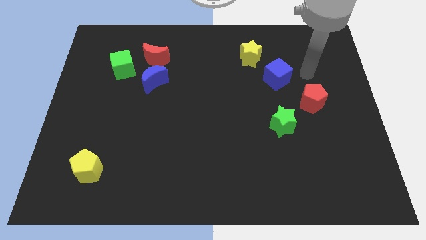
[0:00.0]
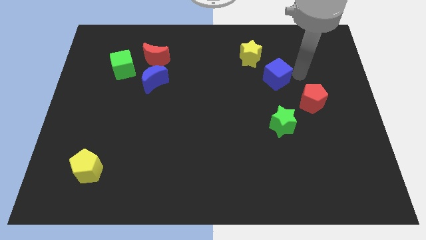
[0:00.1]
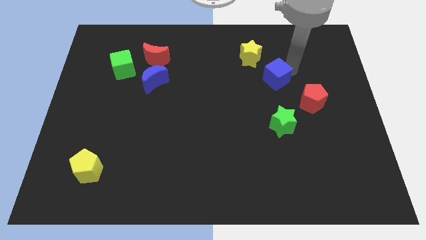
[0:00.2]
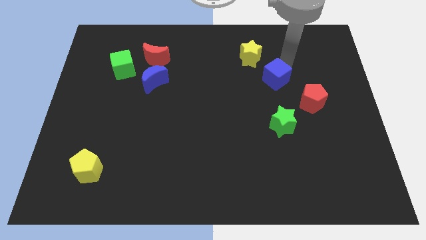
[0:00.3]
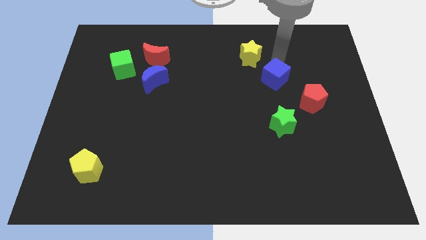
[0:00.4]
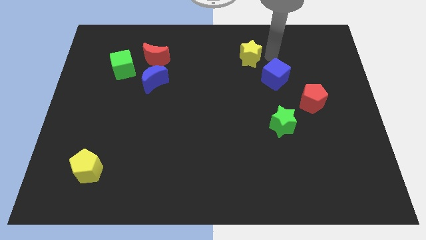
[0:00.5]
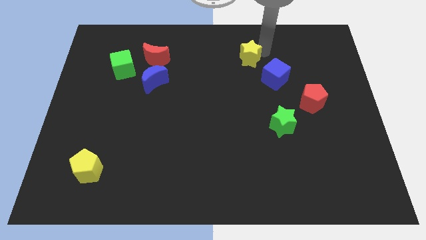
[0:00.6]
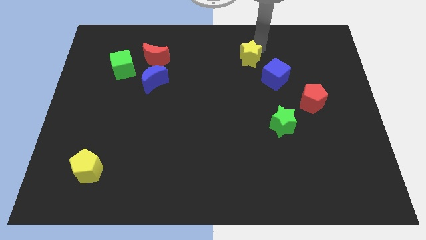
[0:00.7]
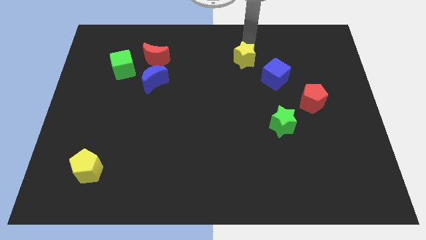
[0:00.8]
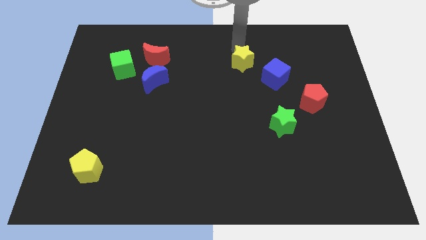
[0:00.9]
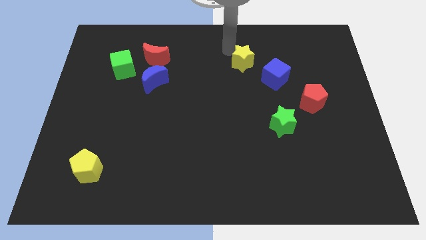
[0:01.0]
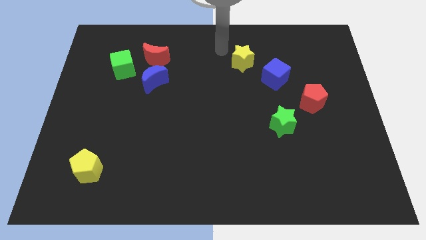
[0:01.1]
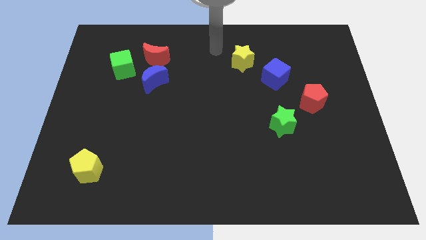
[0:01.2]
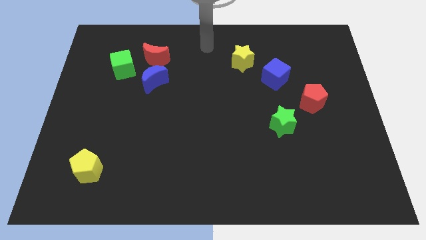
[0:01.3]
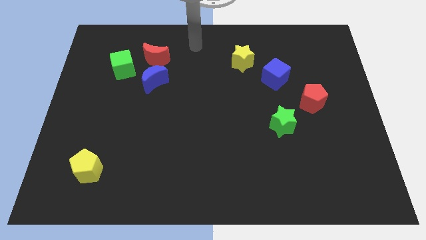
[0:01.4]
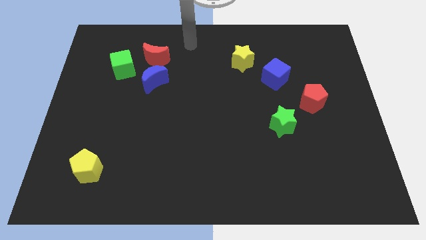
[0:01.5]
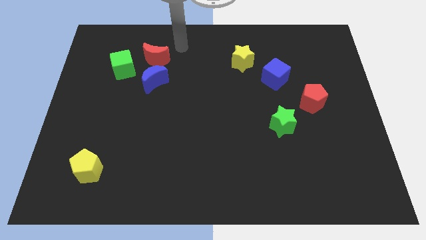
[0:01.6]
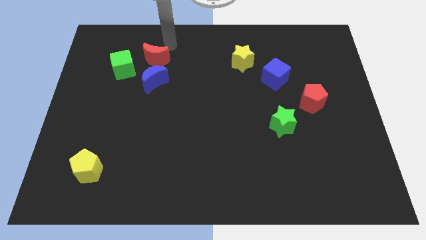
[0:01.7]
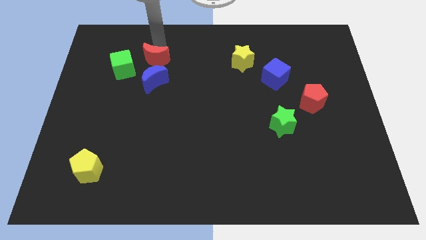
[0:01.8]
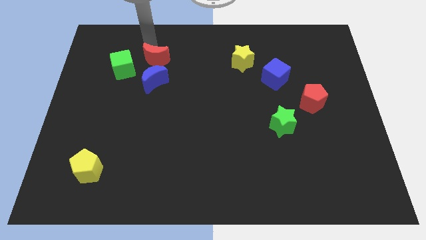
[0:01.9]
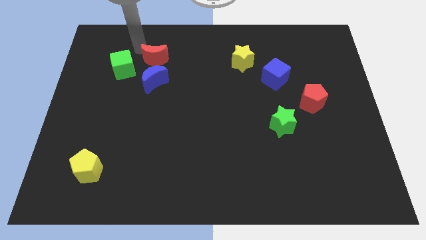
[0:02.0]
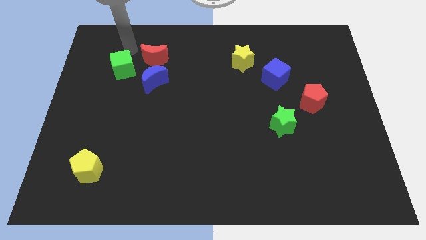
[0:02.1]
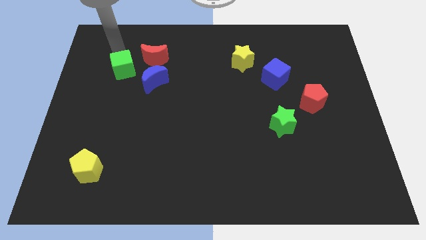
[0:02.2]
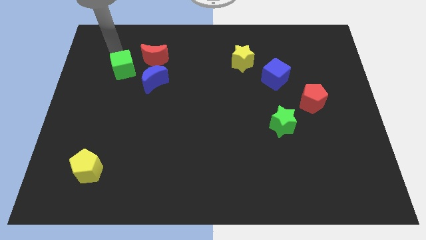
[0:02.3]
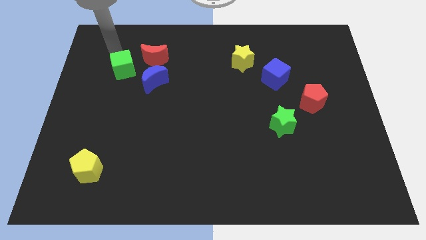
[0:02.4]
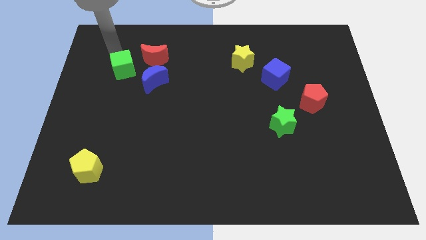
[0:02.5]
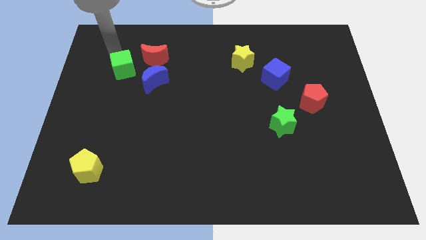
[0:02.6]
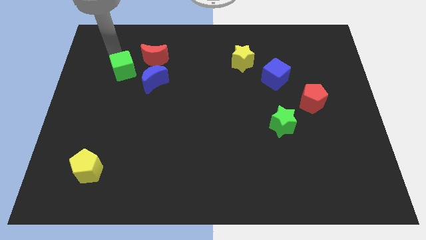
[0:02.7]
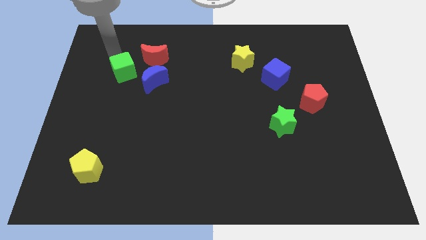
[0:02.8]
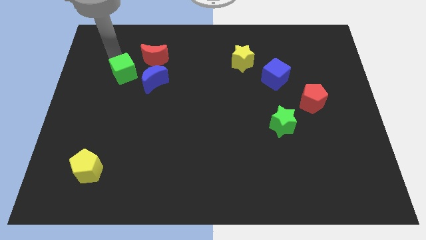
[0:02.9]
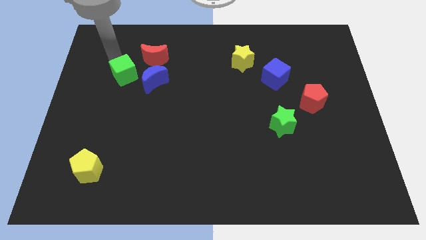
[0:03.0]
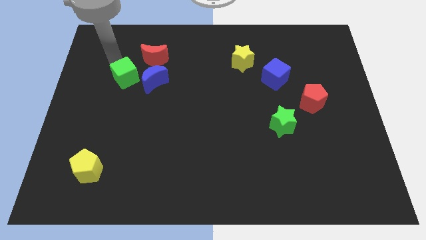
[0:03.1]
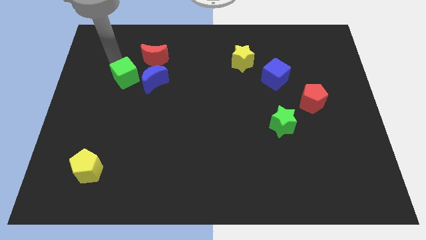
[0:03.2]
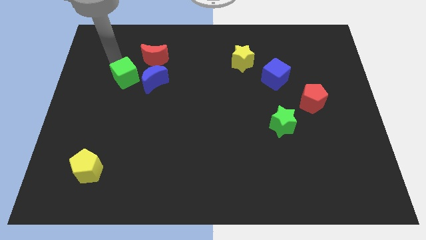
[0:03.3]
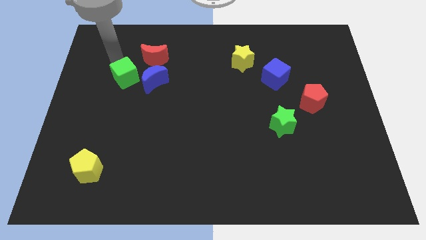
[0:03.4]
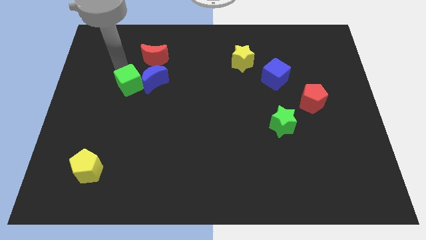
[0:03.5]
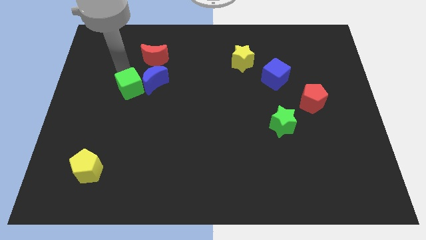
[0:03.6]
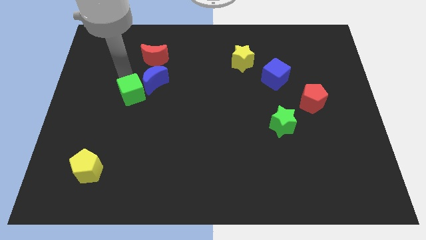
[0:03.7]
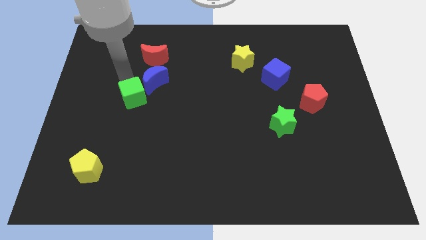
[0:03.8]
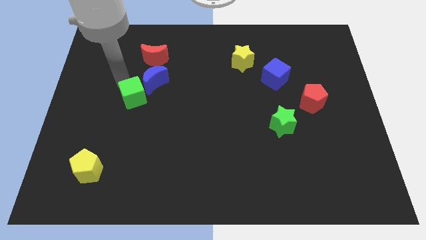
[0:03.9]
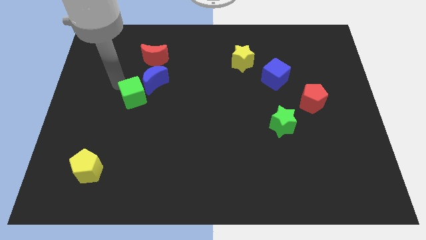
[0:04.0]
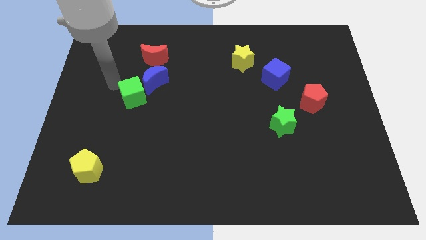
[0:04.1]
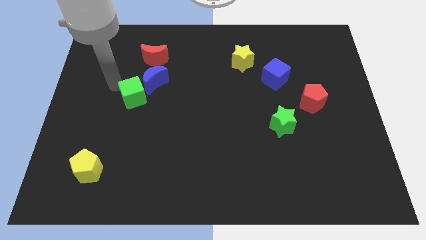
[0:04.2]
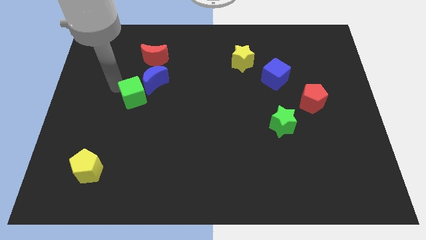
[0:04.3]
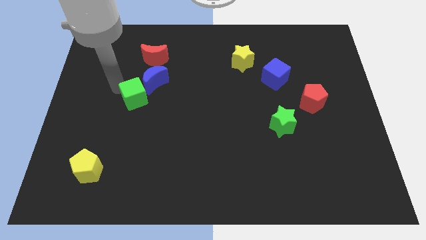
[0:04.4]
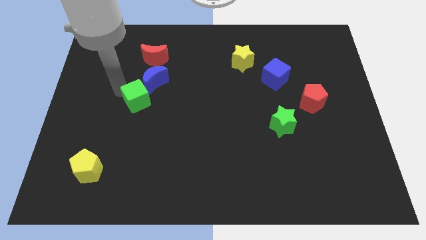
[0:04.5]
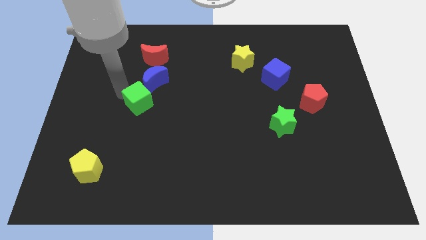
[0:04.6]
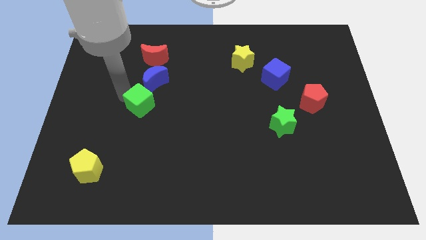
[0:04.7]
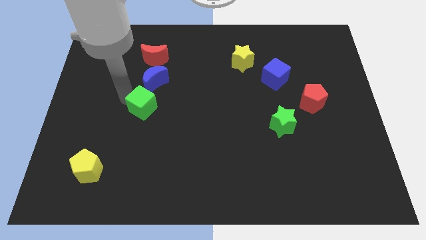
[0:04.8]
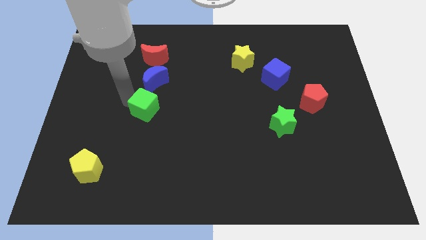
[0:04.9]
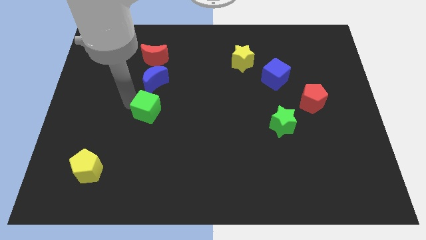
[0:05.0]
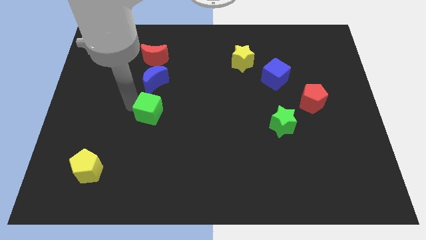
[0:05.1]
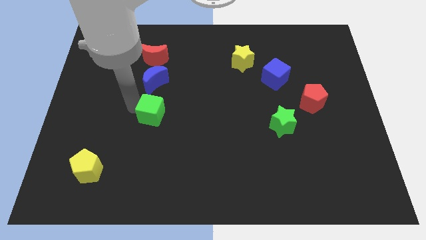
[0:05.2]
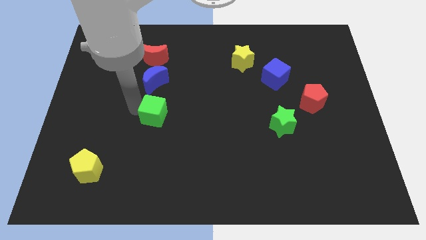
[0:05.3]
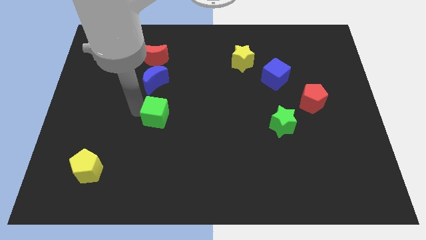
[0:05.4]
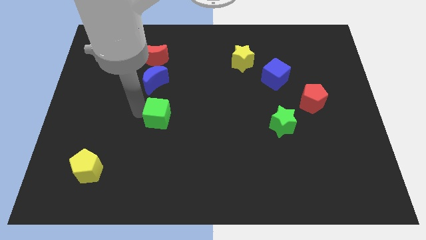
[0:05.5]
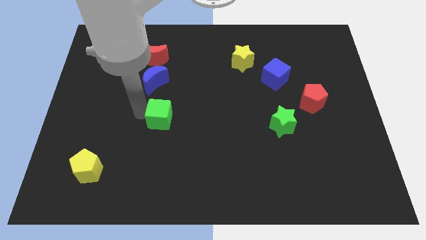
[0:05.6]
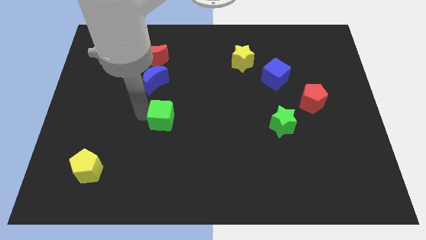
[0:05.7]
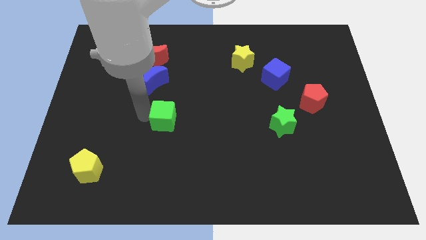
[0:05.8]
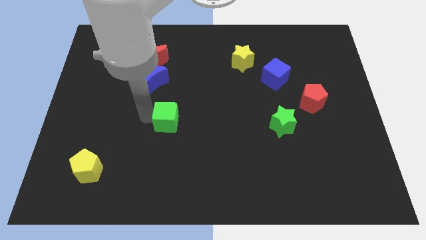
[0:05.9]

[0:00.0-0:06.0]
move the green cube downwards and right

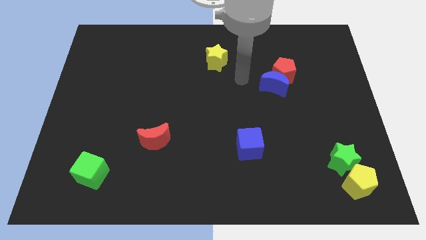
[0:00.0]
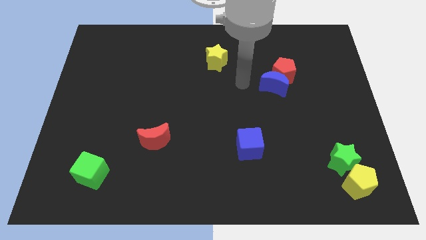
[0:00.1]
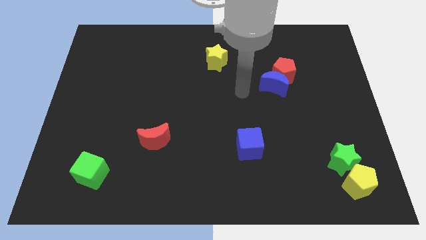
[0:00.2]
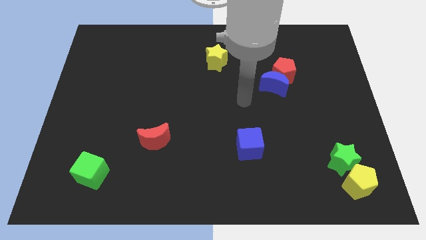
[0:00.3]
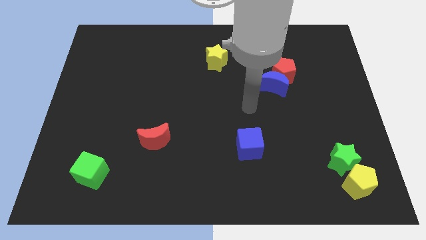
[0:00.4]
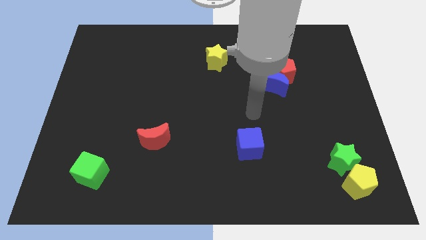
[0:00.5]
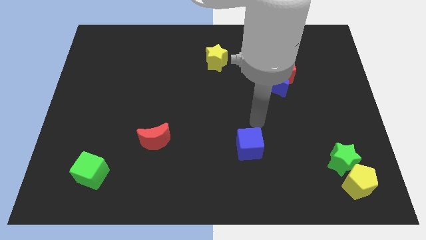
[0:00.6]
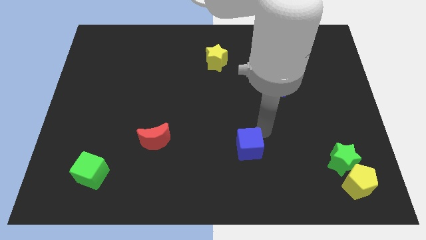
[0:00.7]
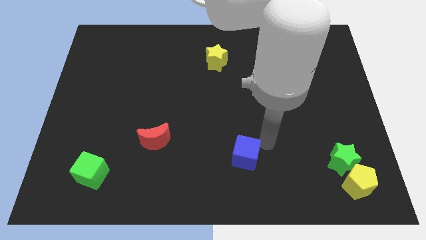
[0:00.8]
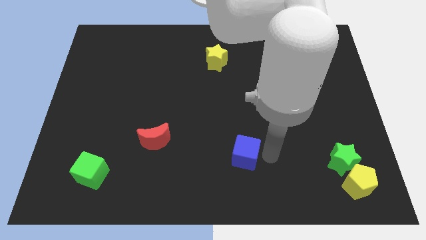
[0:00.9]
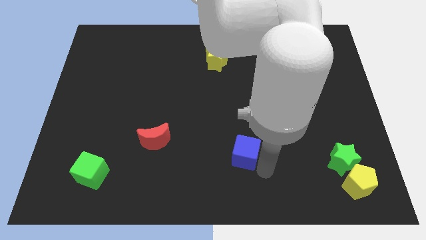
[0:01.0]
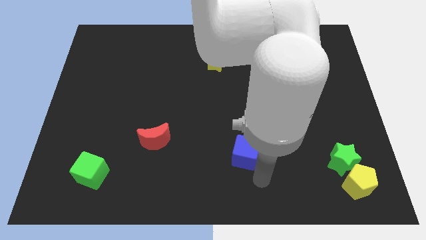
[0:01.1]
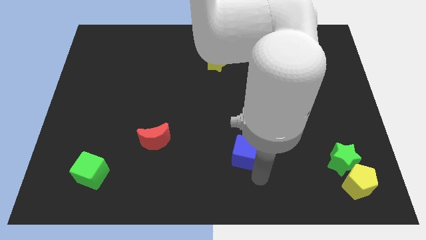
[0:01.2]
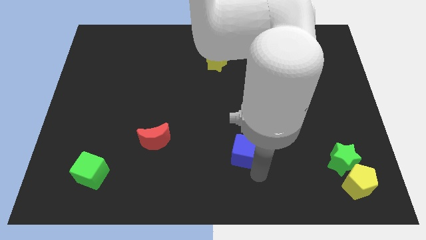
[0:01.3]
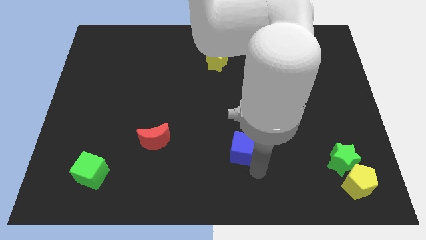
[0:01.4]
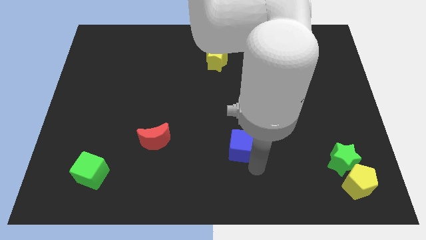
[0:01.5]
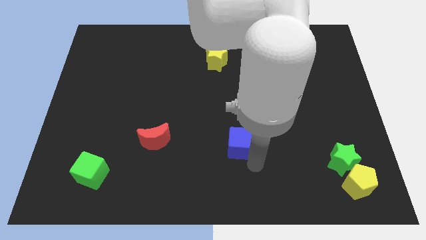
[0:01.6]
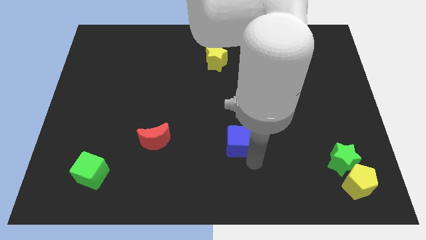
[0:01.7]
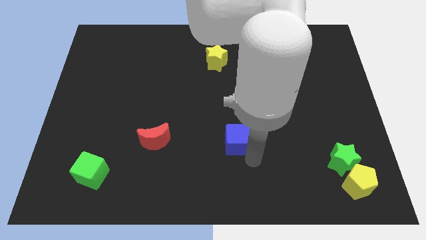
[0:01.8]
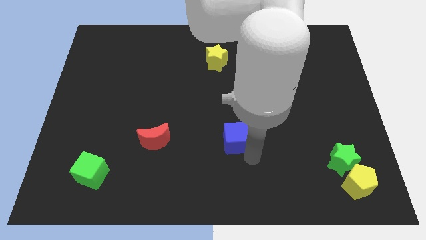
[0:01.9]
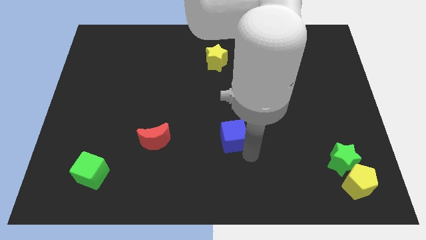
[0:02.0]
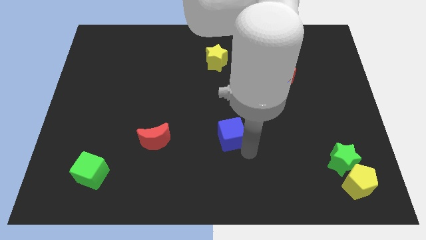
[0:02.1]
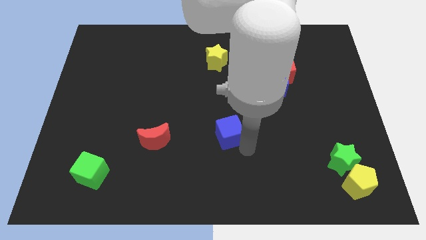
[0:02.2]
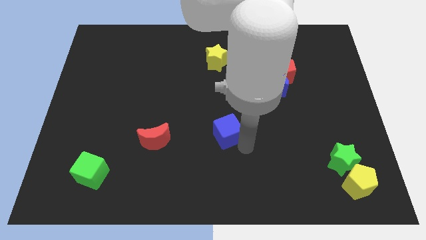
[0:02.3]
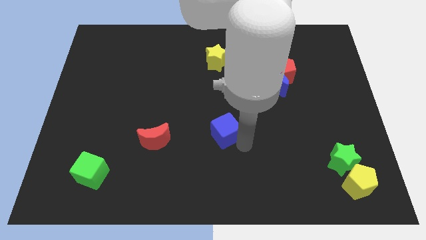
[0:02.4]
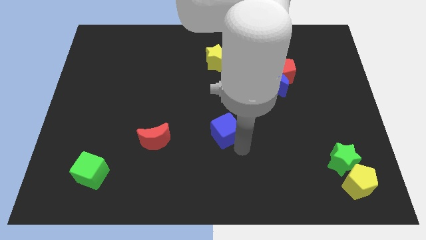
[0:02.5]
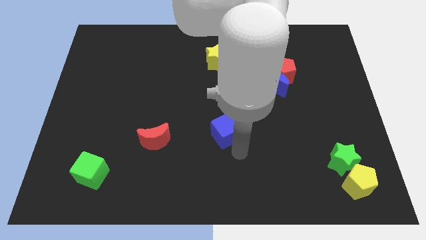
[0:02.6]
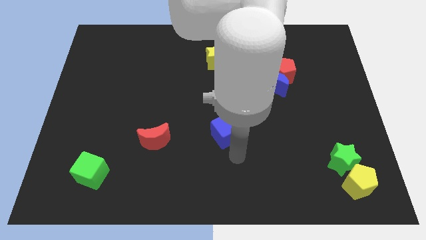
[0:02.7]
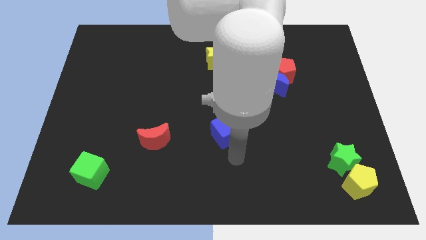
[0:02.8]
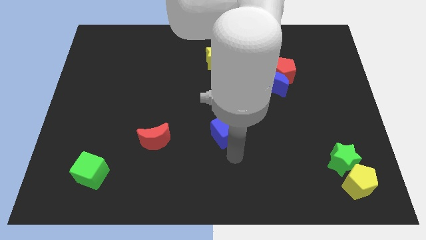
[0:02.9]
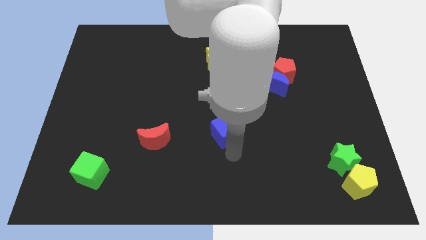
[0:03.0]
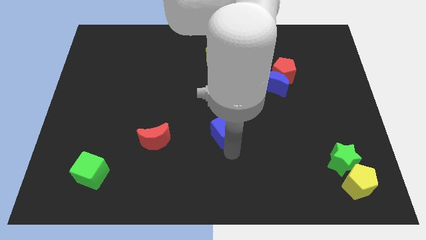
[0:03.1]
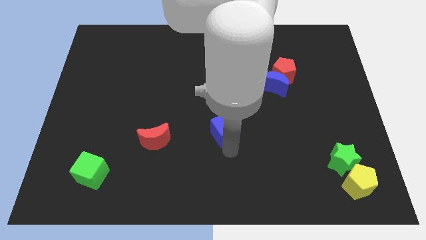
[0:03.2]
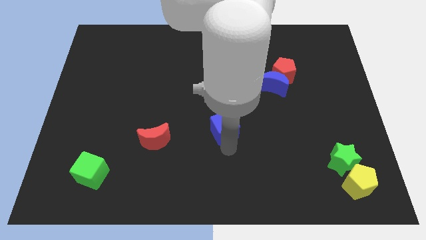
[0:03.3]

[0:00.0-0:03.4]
slide the blue cube up and left somewhat
